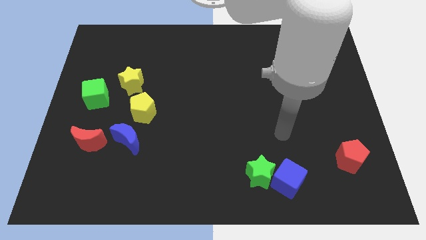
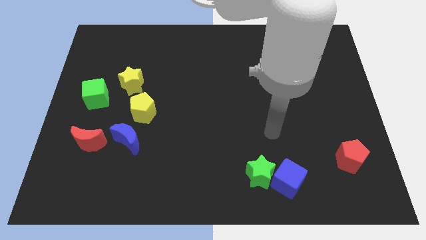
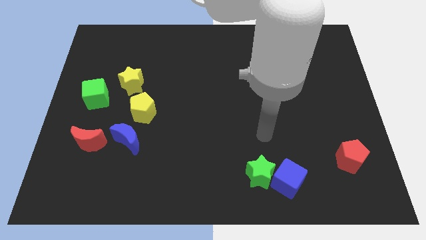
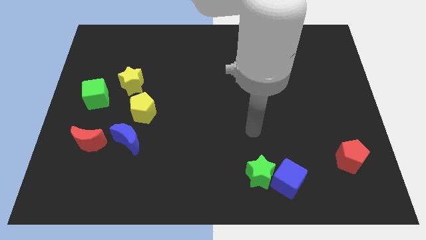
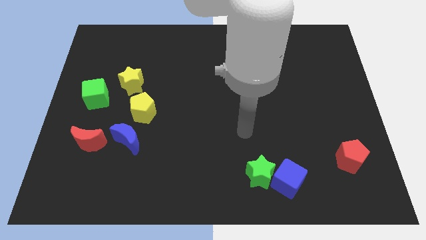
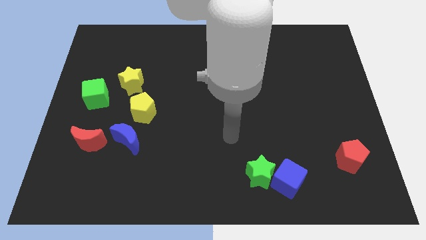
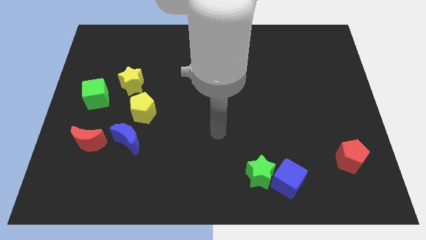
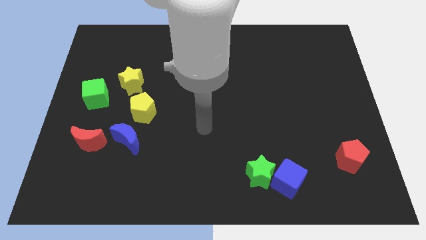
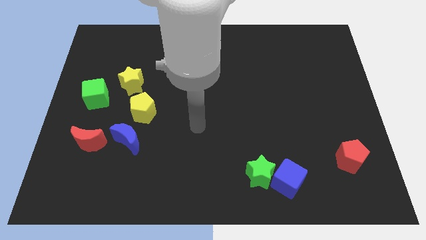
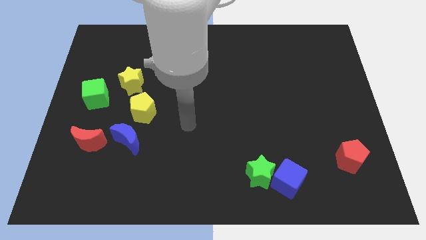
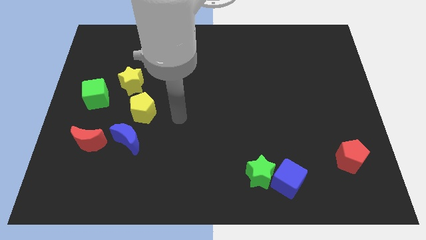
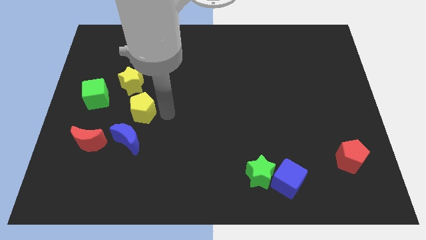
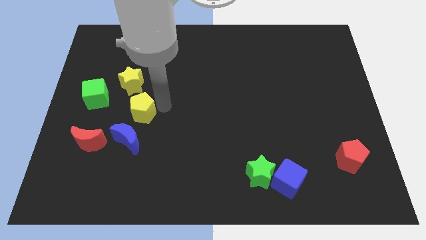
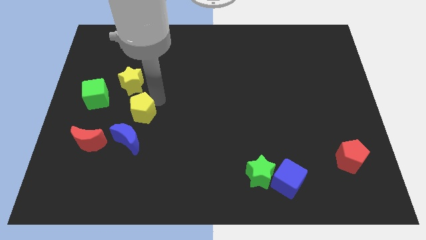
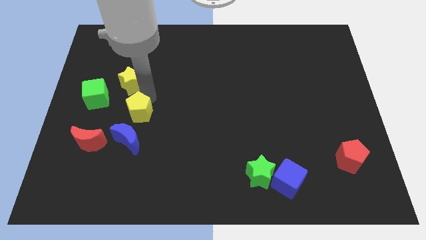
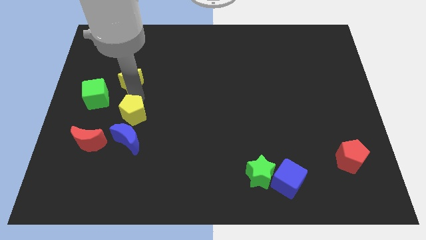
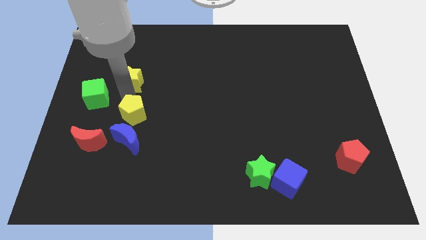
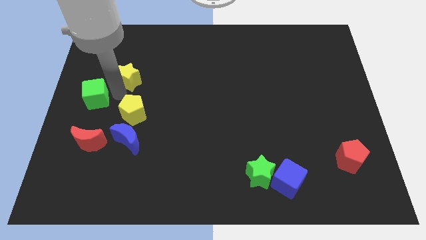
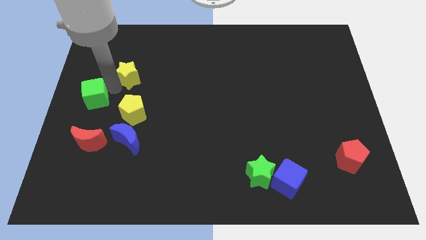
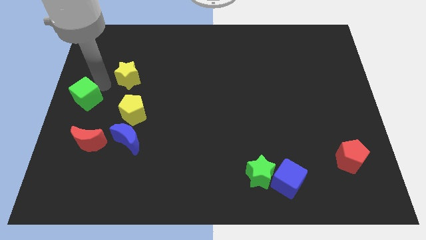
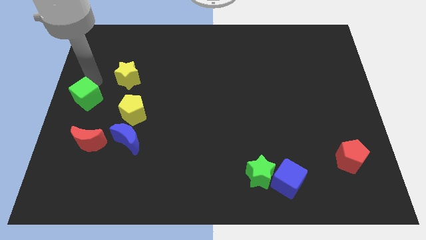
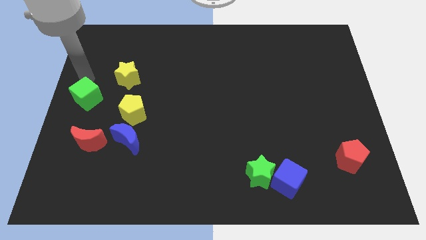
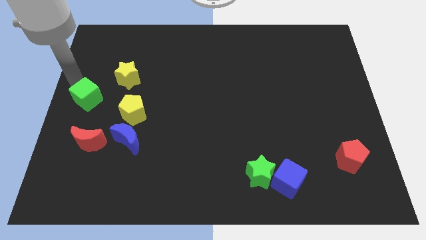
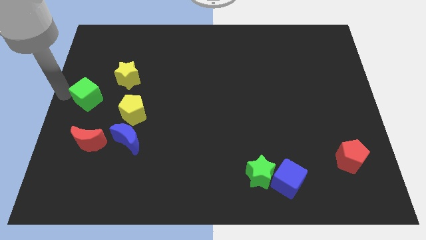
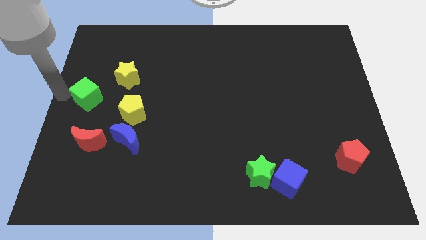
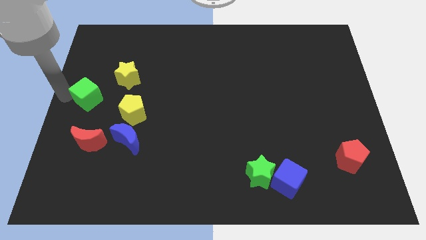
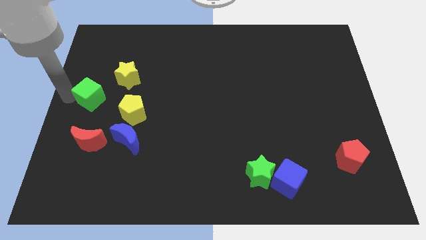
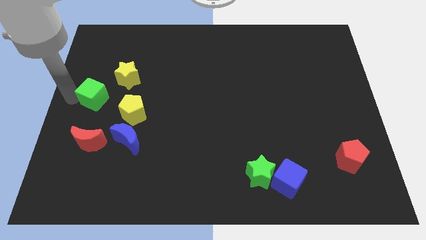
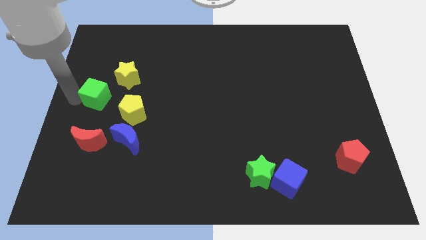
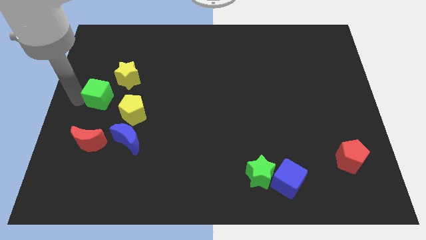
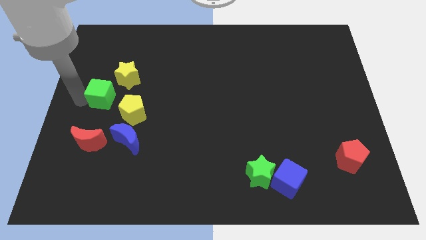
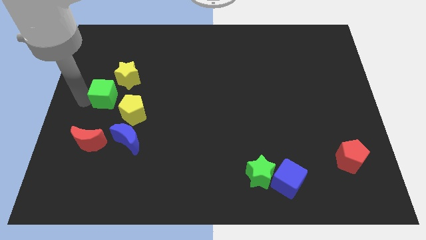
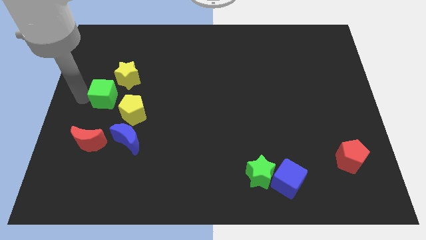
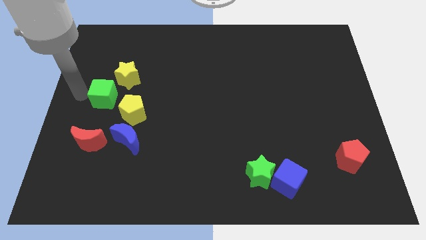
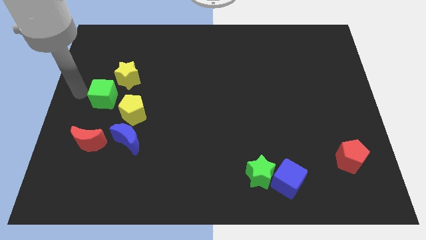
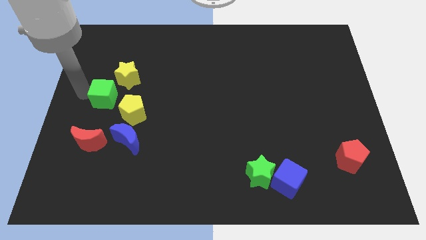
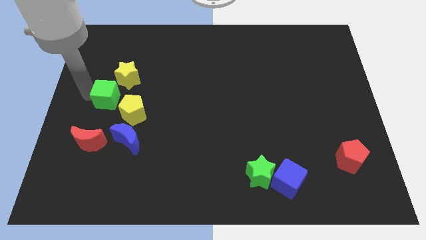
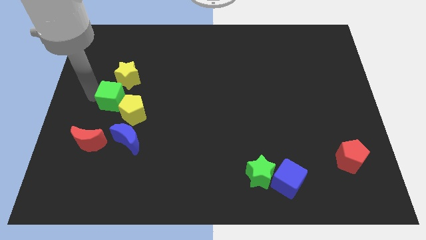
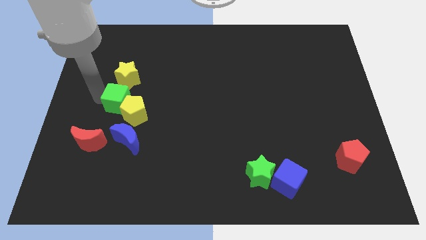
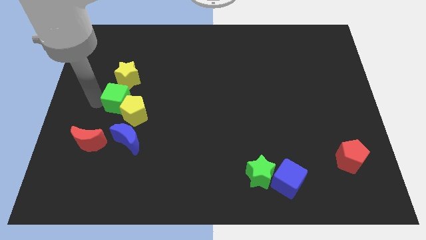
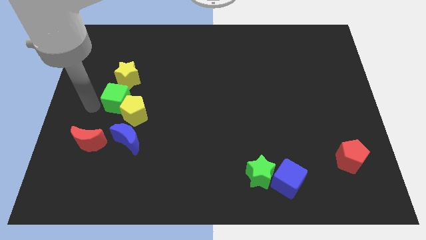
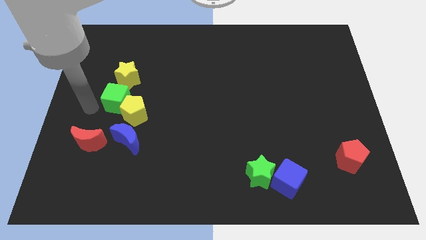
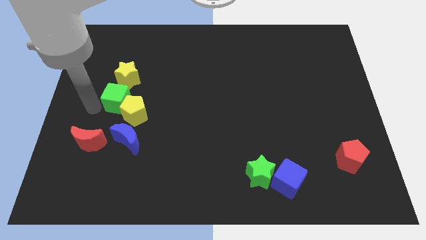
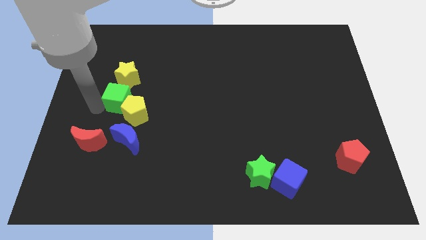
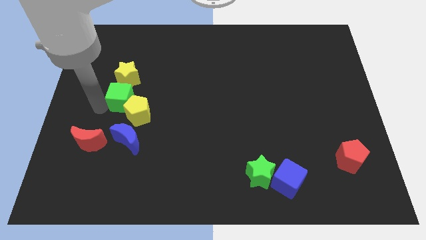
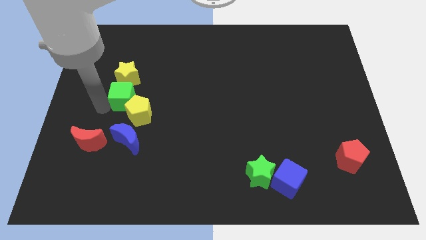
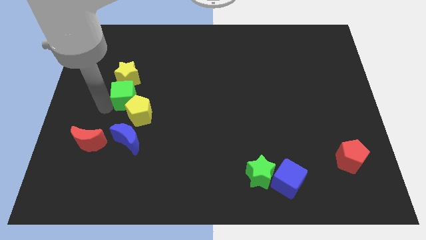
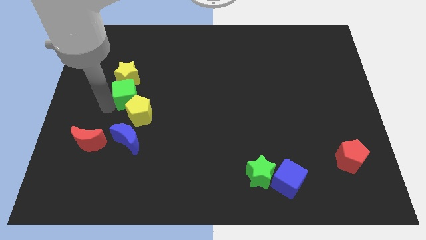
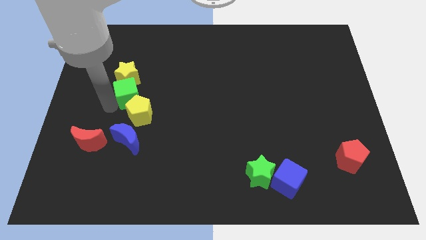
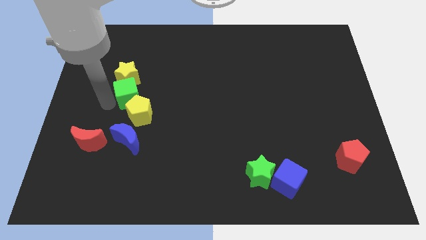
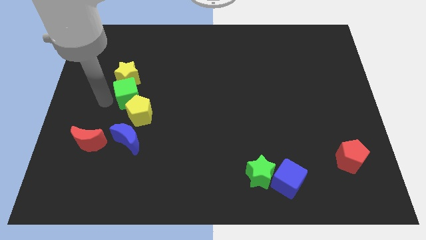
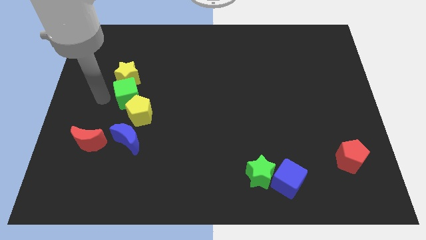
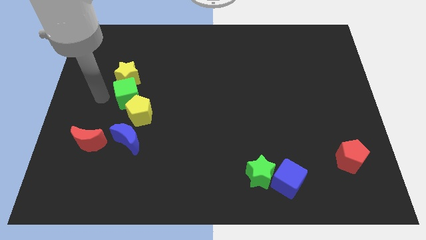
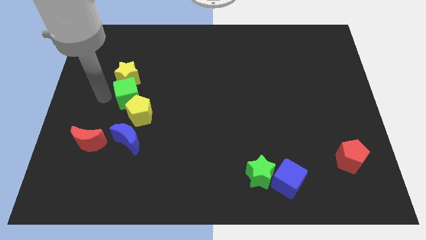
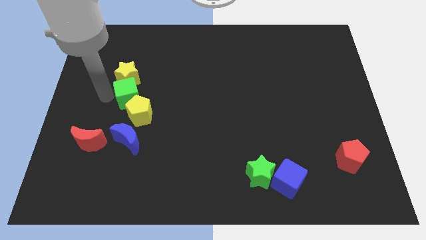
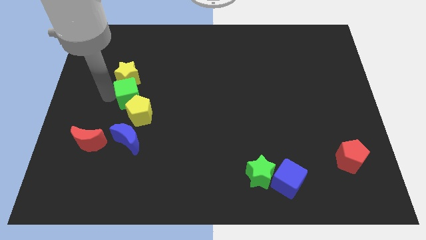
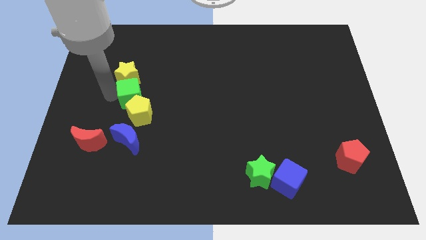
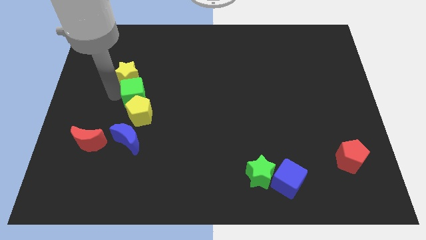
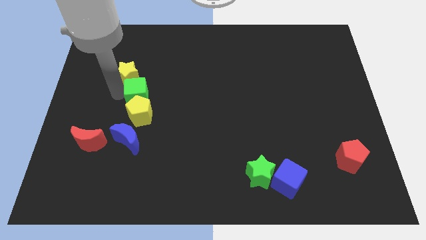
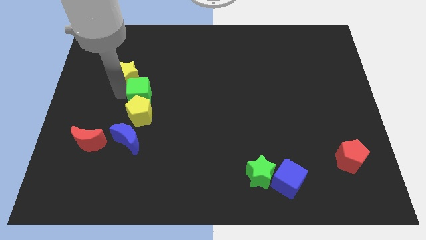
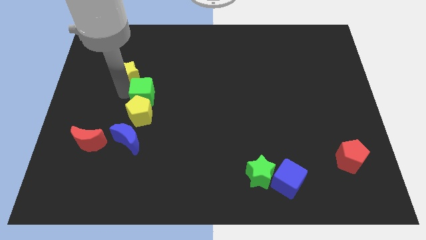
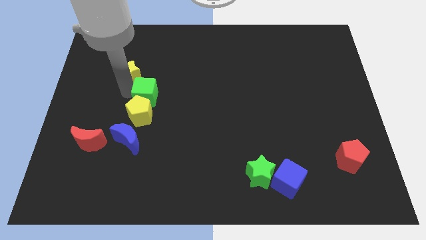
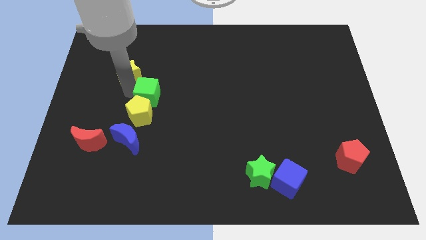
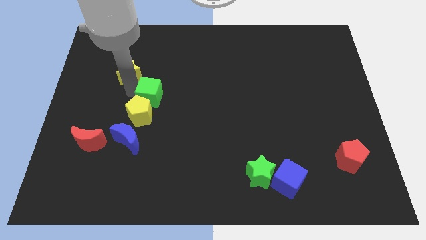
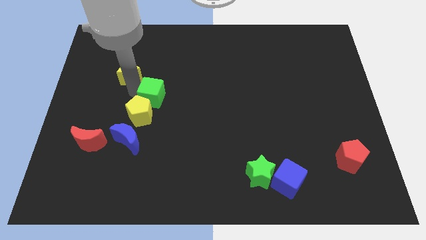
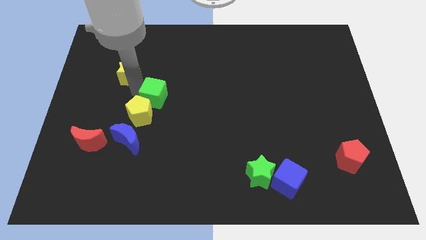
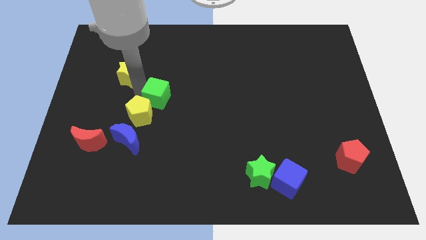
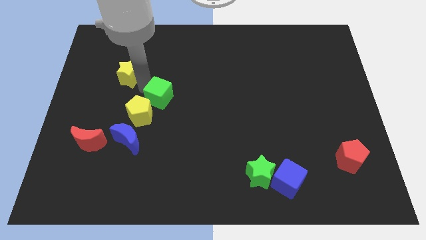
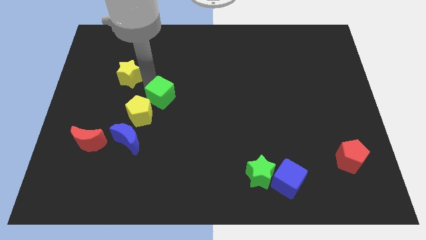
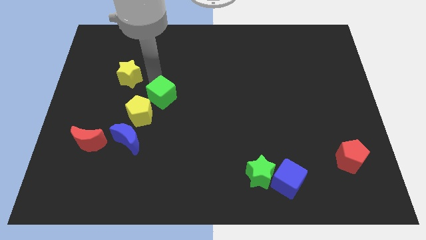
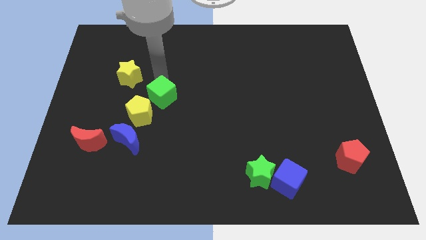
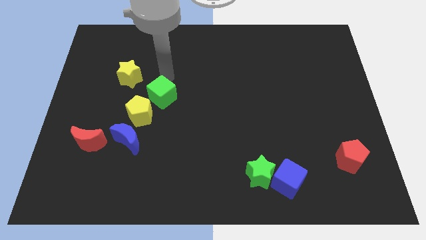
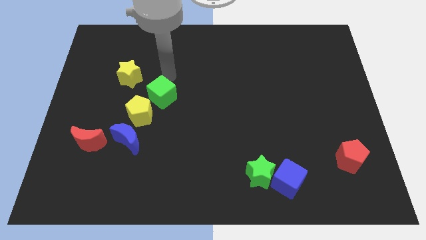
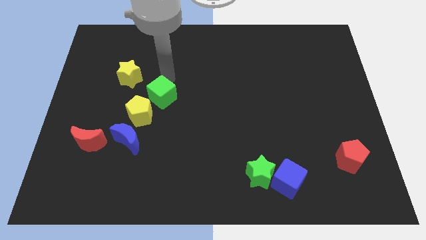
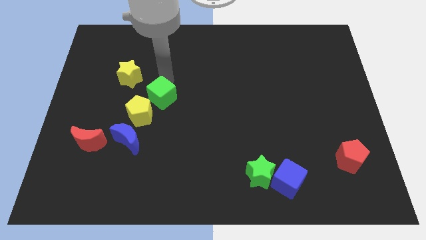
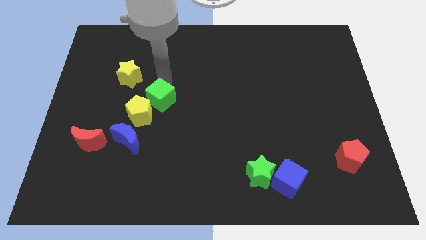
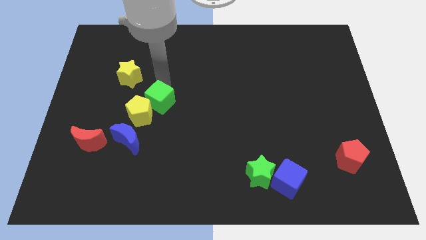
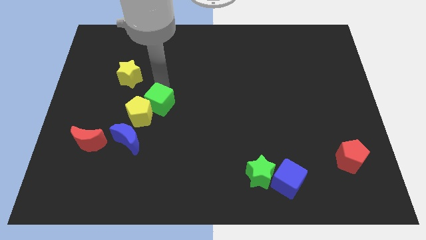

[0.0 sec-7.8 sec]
put the green cube to the top right of the blue moon
